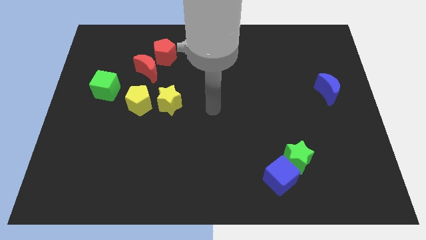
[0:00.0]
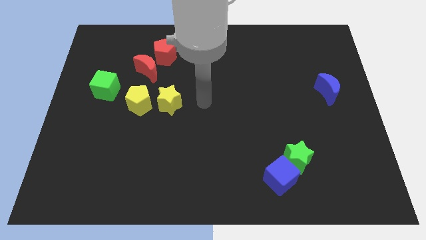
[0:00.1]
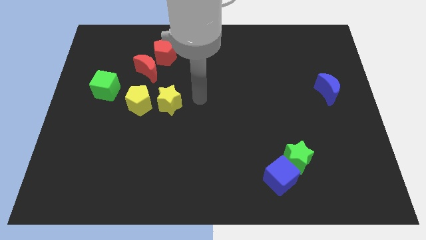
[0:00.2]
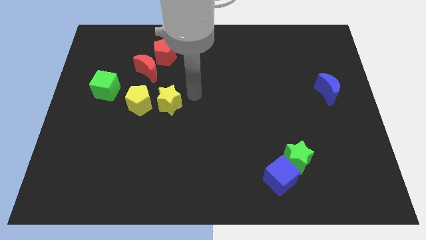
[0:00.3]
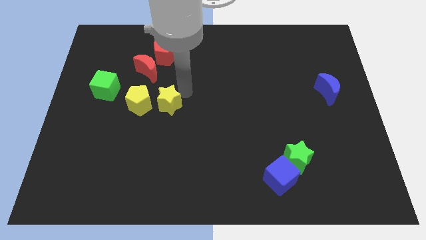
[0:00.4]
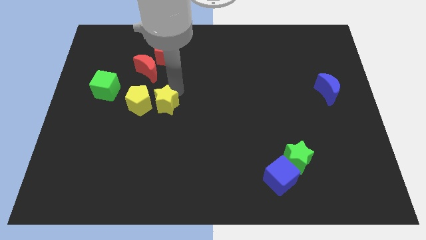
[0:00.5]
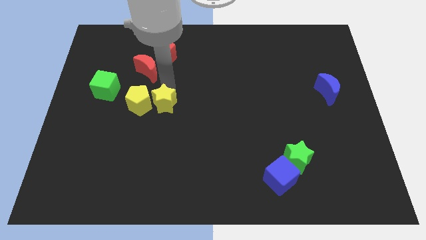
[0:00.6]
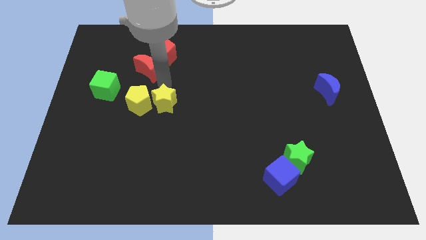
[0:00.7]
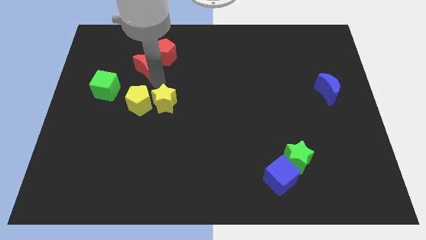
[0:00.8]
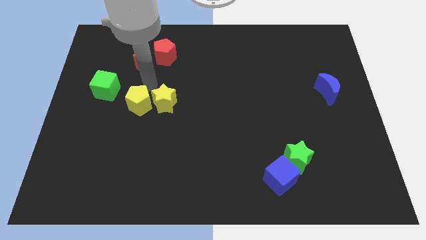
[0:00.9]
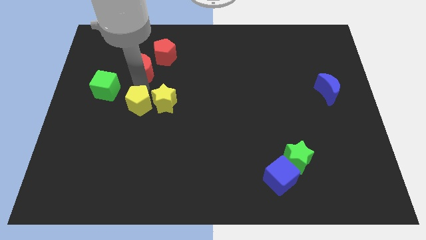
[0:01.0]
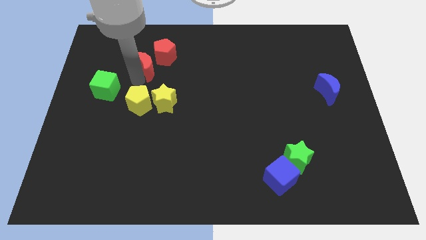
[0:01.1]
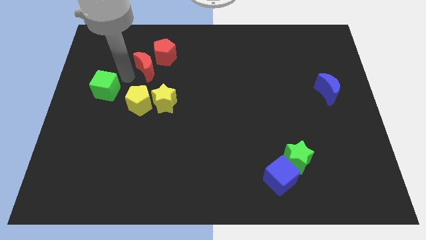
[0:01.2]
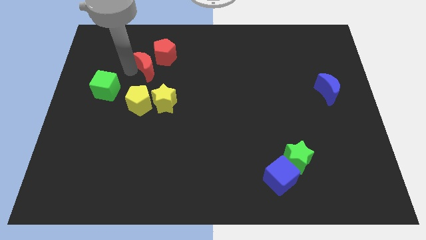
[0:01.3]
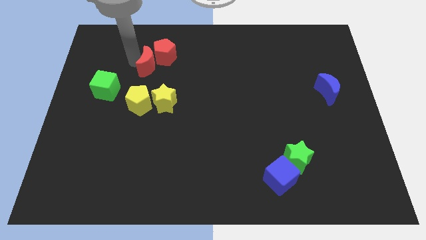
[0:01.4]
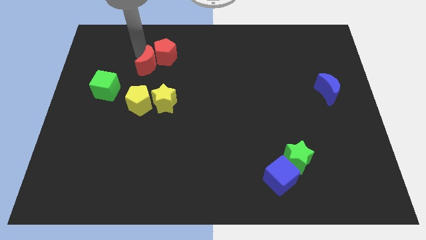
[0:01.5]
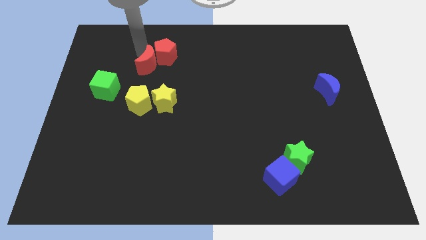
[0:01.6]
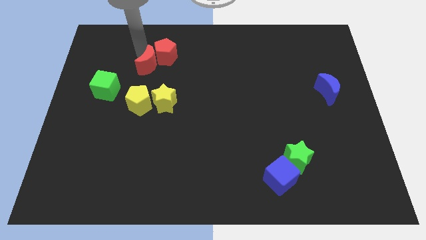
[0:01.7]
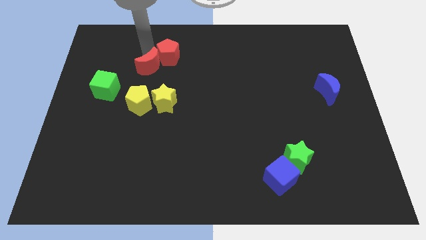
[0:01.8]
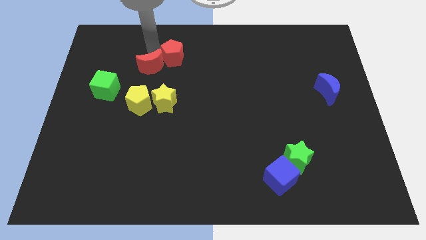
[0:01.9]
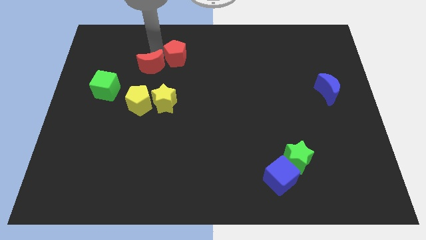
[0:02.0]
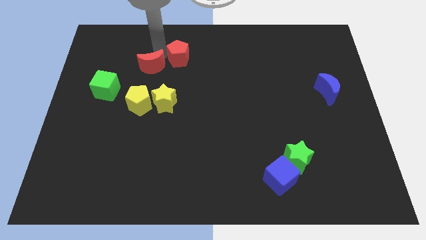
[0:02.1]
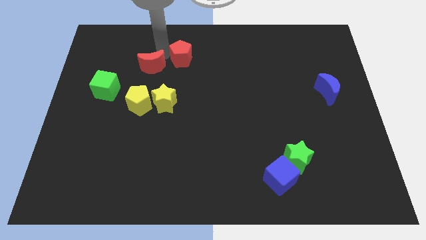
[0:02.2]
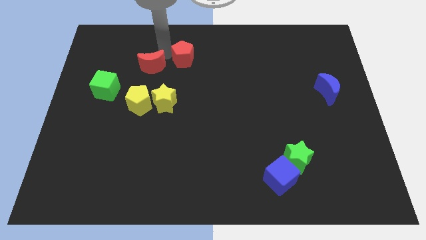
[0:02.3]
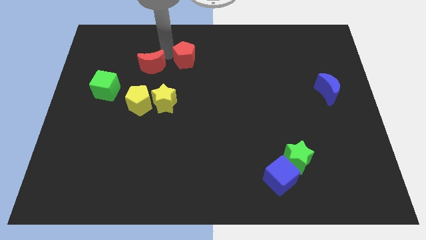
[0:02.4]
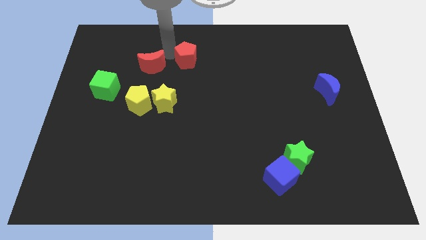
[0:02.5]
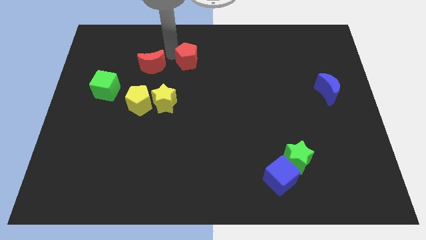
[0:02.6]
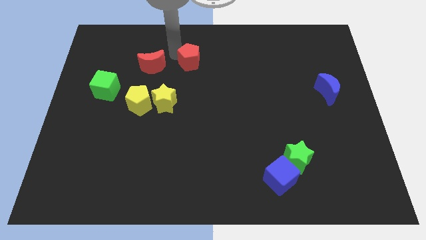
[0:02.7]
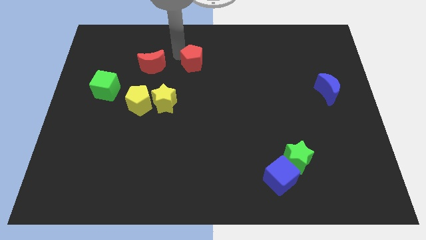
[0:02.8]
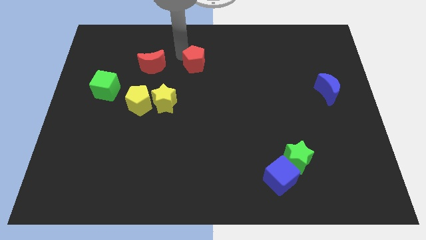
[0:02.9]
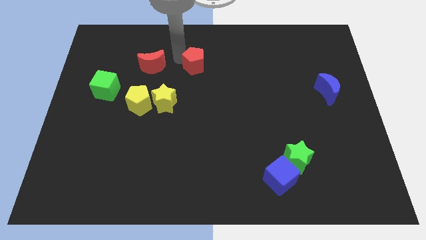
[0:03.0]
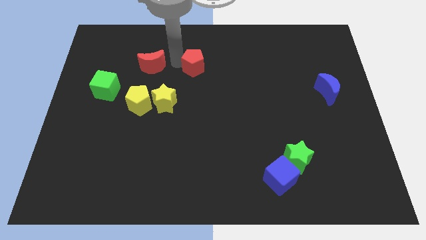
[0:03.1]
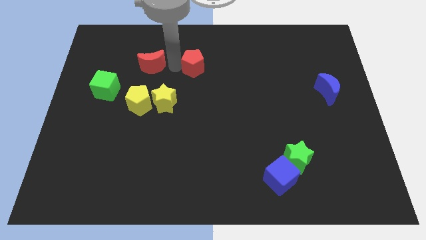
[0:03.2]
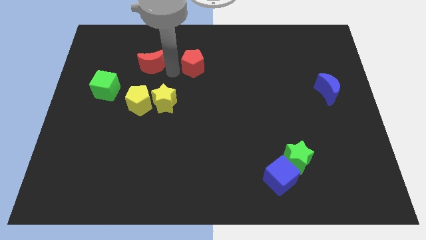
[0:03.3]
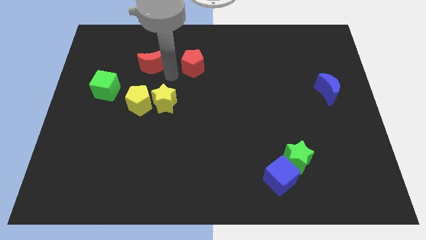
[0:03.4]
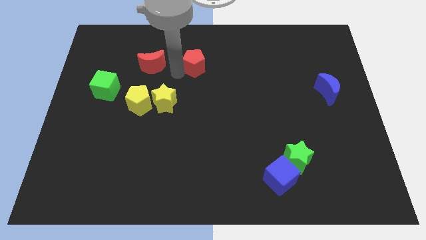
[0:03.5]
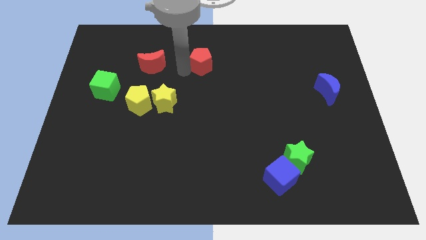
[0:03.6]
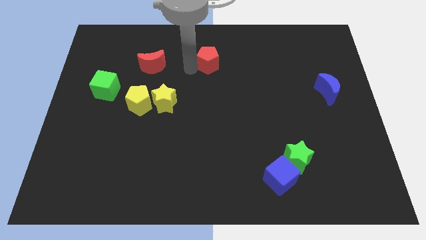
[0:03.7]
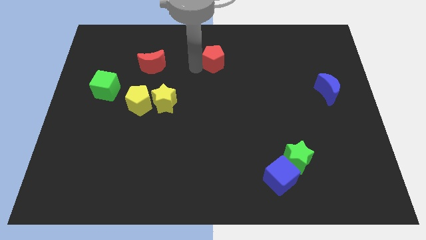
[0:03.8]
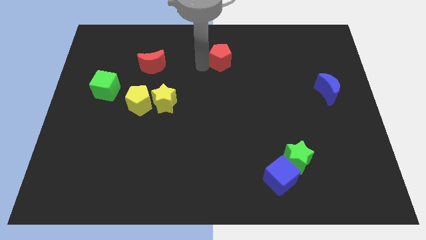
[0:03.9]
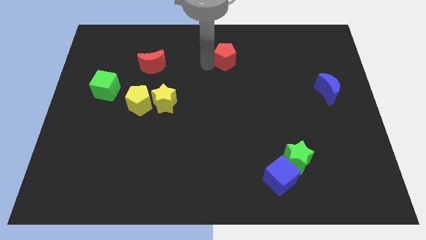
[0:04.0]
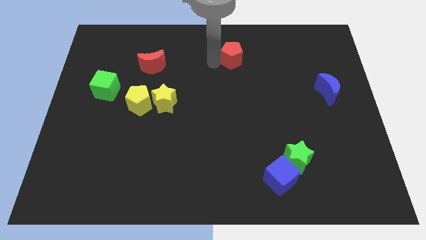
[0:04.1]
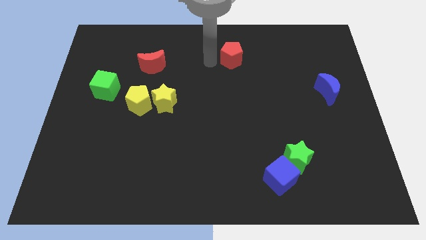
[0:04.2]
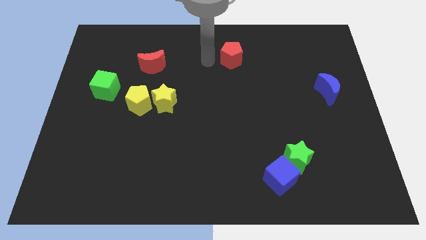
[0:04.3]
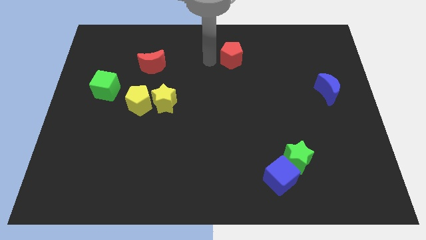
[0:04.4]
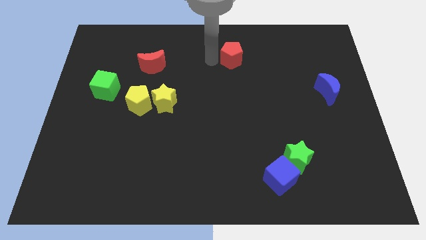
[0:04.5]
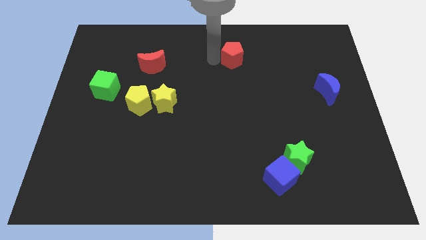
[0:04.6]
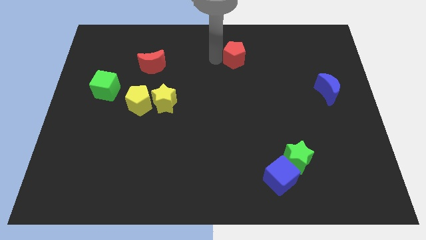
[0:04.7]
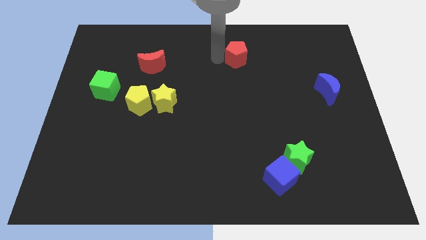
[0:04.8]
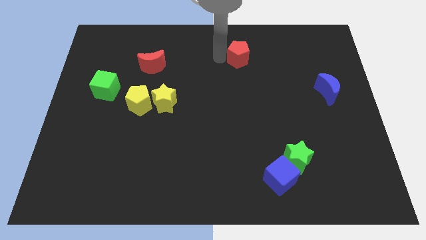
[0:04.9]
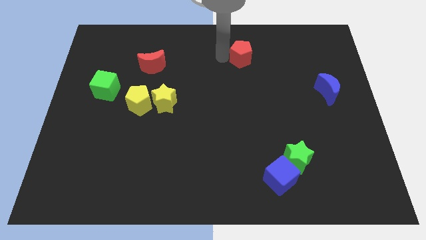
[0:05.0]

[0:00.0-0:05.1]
move the red pentagon right

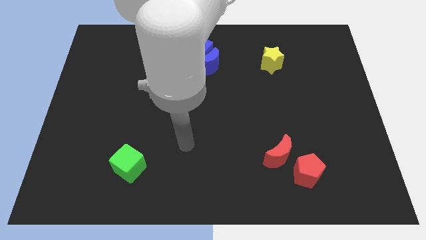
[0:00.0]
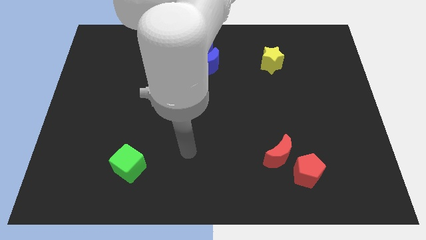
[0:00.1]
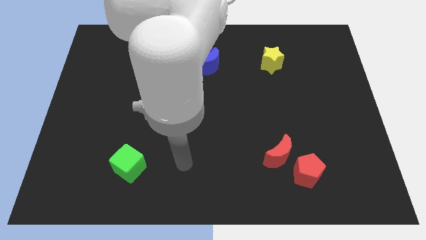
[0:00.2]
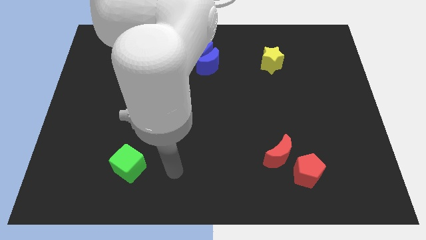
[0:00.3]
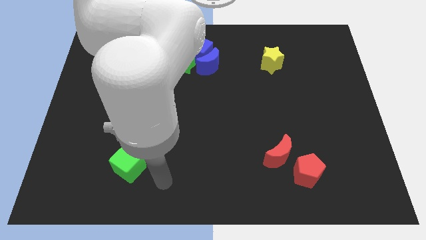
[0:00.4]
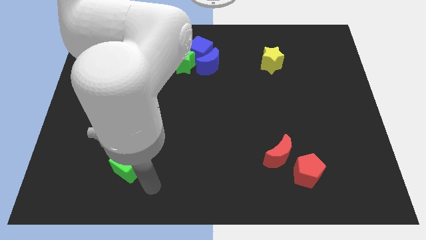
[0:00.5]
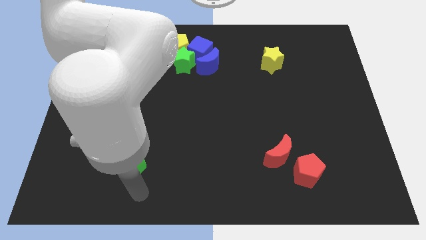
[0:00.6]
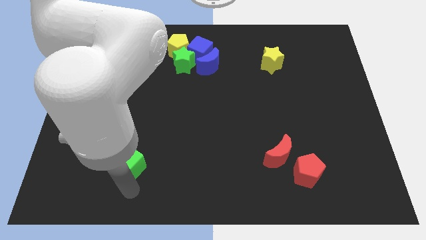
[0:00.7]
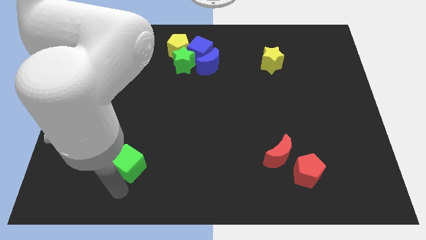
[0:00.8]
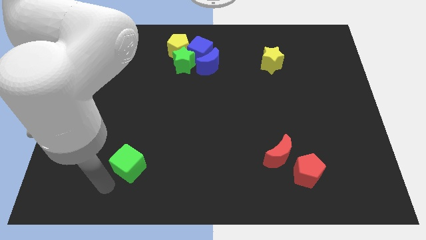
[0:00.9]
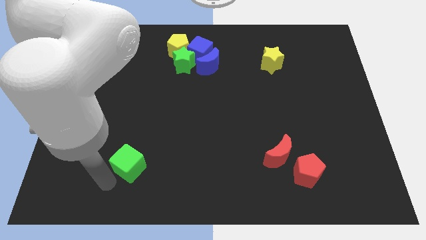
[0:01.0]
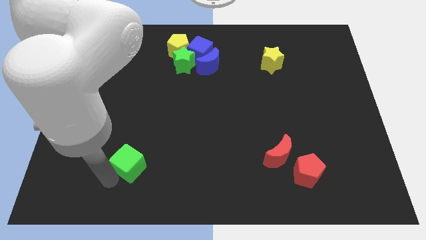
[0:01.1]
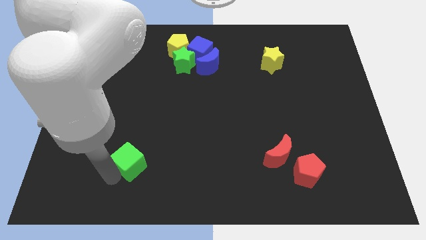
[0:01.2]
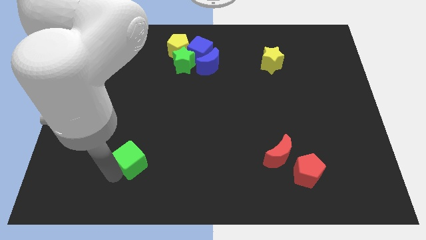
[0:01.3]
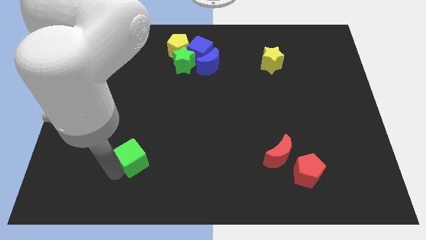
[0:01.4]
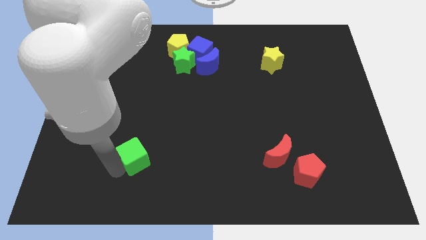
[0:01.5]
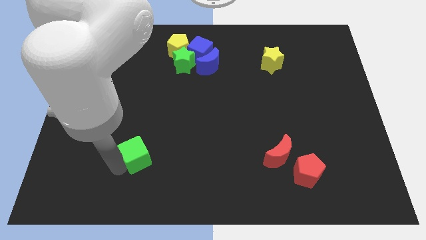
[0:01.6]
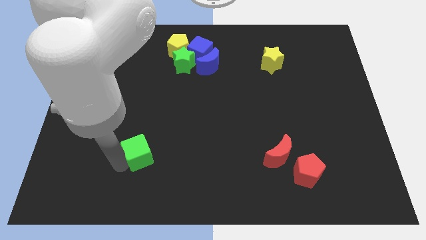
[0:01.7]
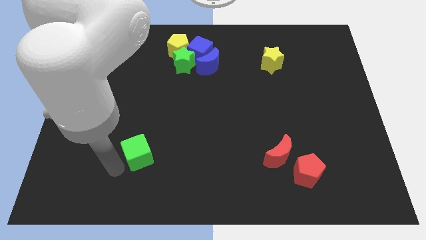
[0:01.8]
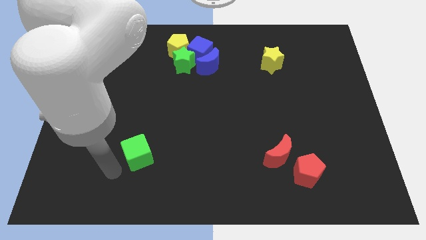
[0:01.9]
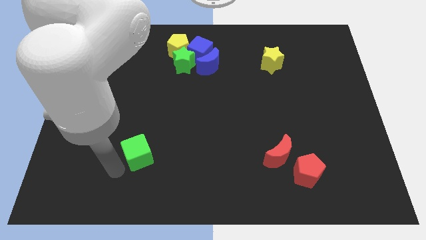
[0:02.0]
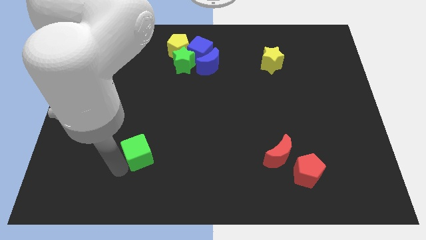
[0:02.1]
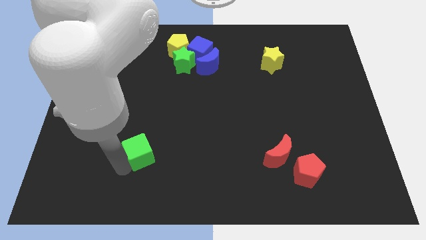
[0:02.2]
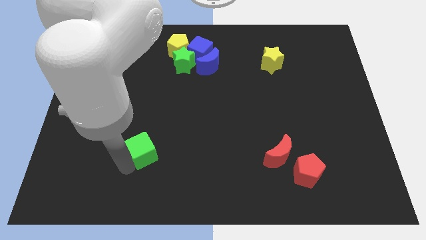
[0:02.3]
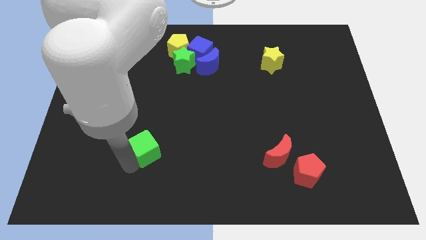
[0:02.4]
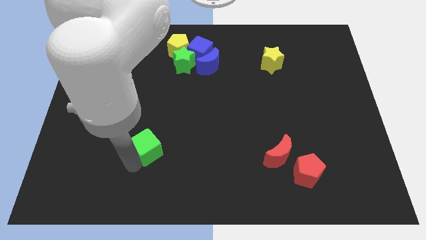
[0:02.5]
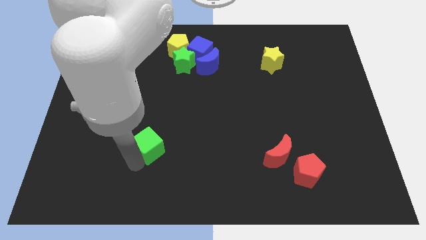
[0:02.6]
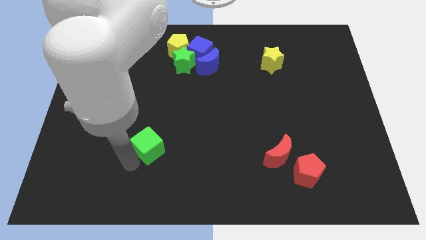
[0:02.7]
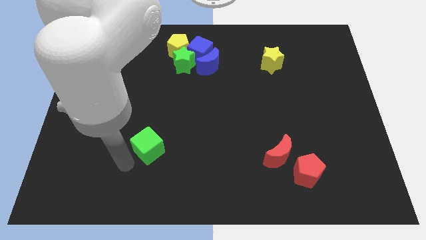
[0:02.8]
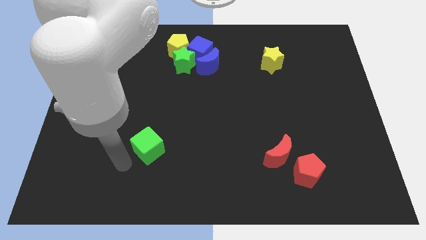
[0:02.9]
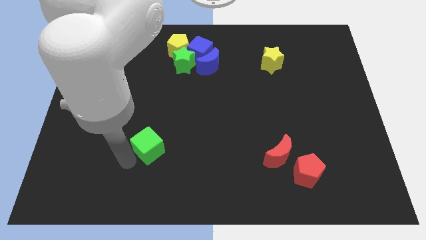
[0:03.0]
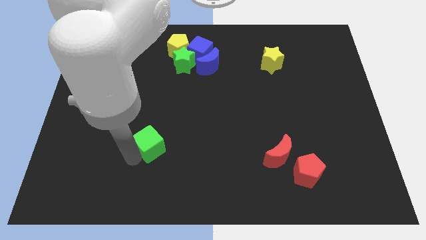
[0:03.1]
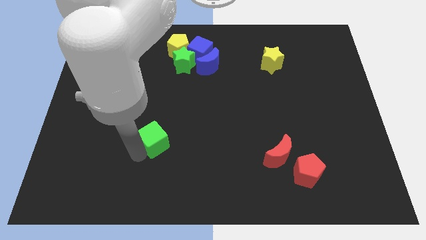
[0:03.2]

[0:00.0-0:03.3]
slightly move the green cube upwards and then right

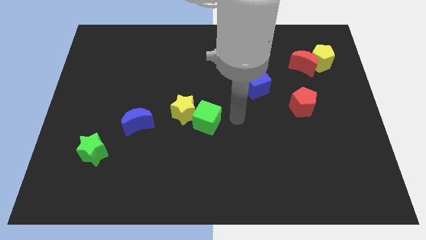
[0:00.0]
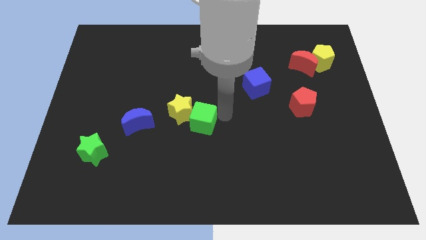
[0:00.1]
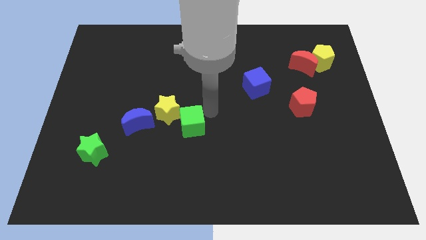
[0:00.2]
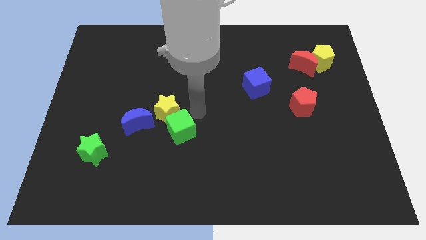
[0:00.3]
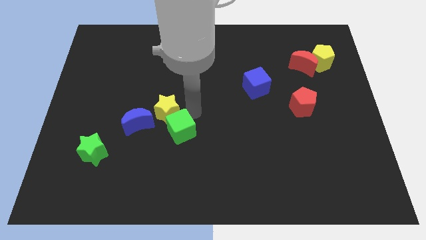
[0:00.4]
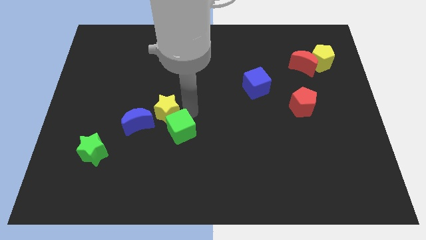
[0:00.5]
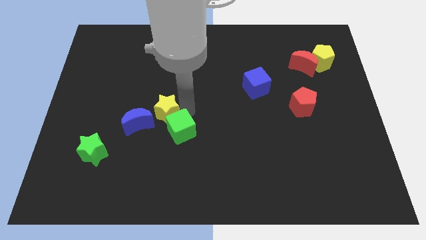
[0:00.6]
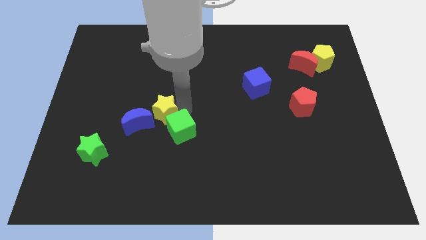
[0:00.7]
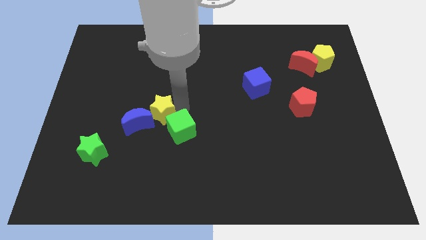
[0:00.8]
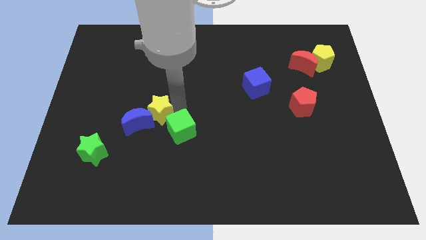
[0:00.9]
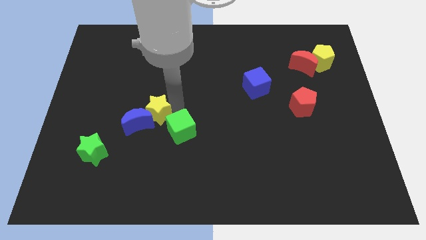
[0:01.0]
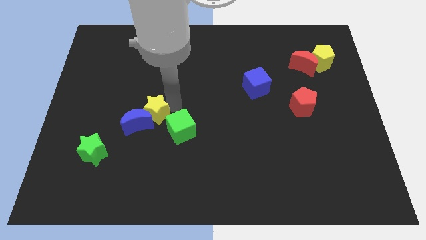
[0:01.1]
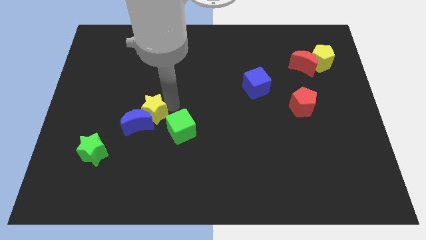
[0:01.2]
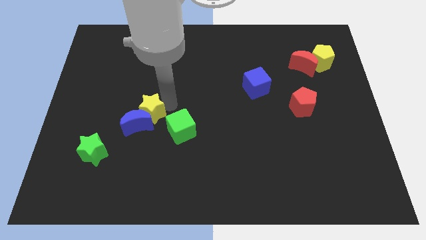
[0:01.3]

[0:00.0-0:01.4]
slightly slide the yellow star to the left
